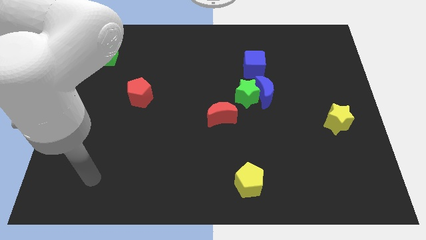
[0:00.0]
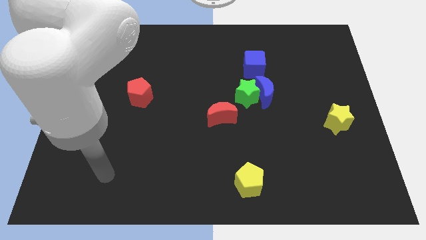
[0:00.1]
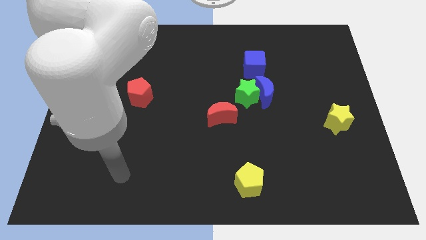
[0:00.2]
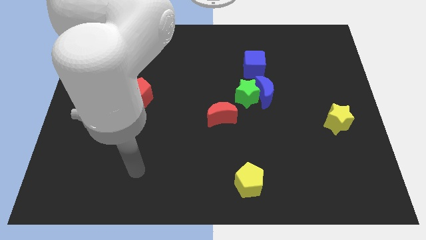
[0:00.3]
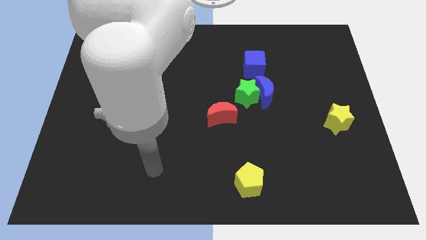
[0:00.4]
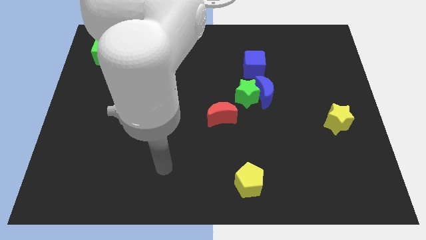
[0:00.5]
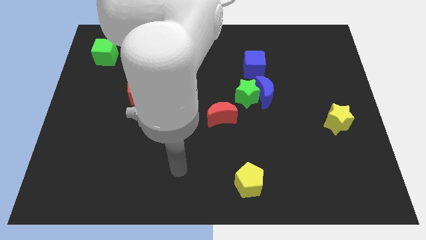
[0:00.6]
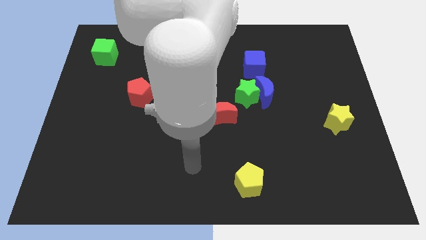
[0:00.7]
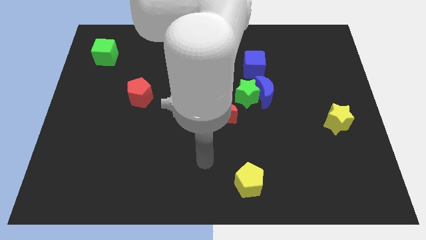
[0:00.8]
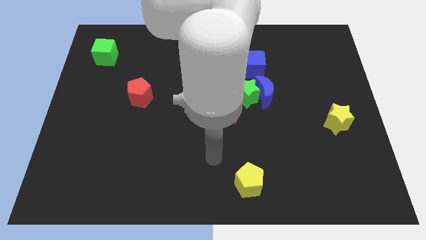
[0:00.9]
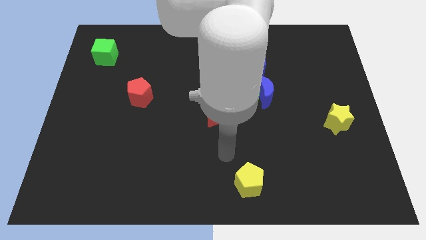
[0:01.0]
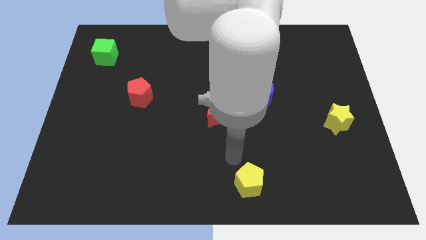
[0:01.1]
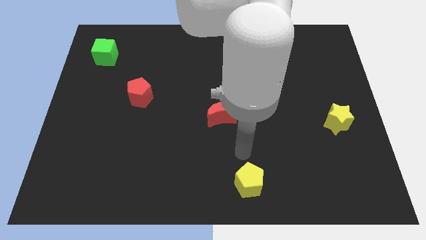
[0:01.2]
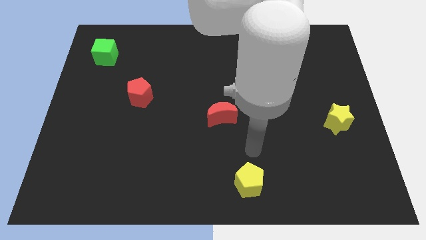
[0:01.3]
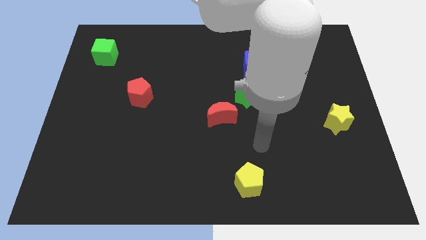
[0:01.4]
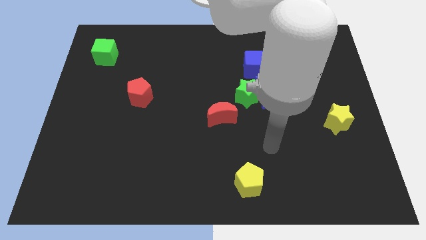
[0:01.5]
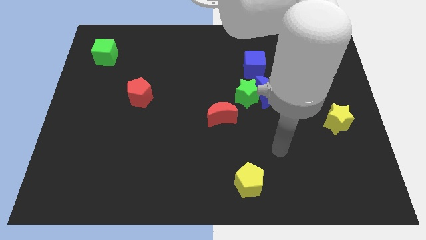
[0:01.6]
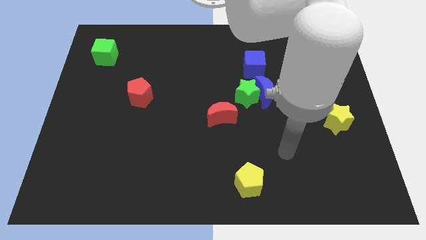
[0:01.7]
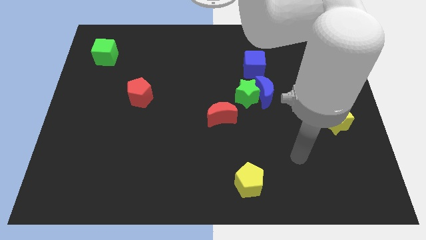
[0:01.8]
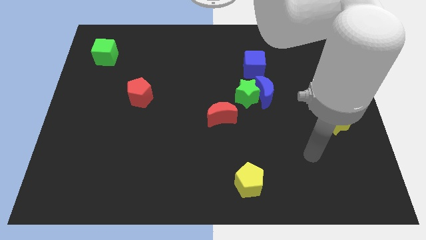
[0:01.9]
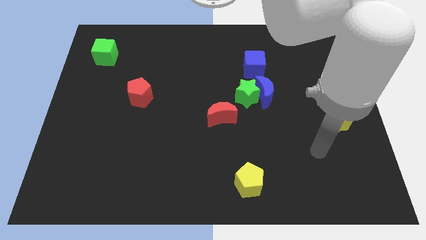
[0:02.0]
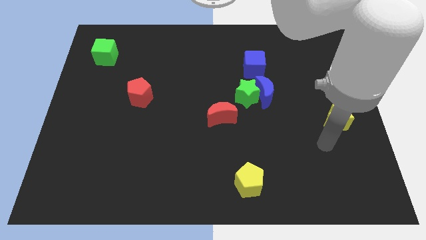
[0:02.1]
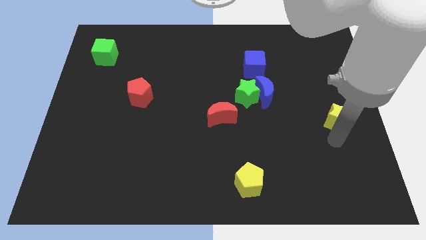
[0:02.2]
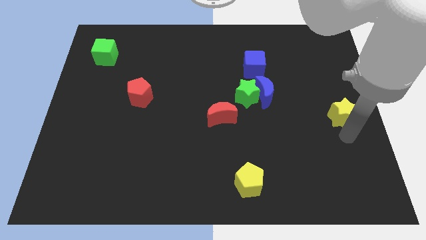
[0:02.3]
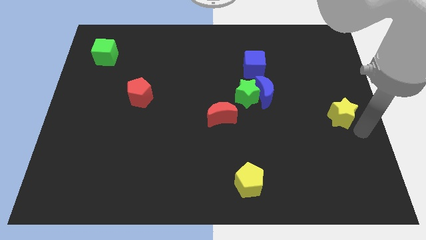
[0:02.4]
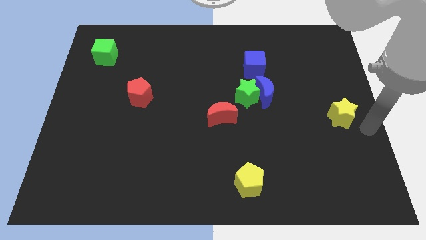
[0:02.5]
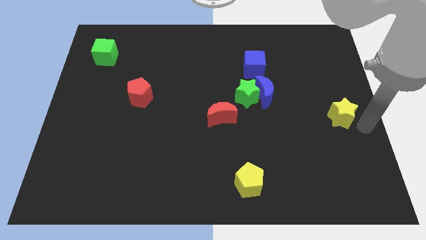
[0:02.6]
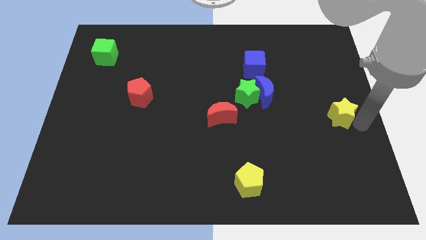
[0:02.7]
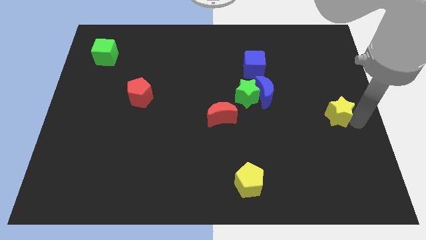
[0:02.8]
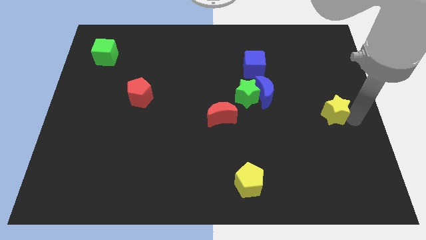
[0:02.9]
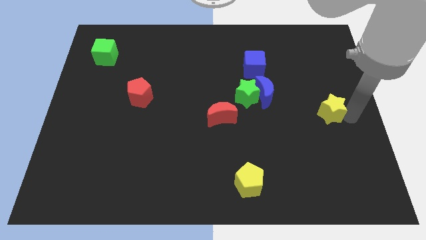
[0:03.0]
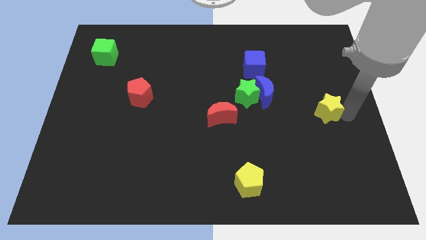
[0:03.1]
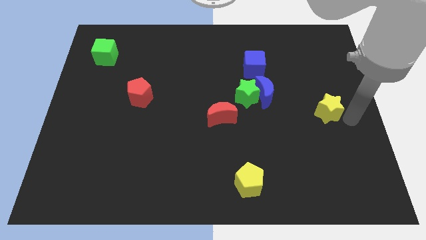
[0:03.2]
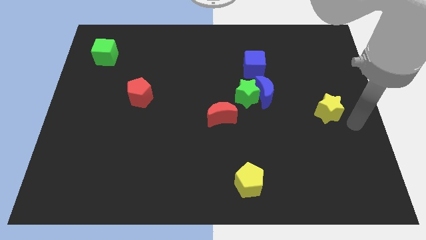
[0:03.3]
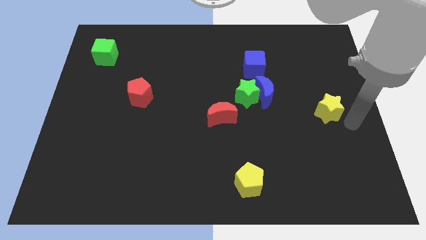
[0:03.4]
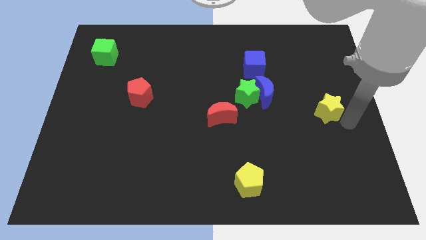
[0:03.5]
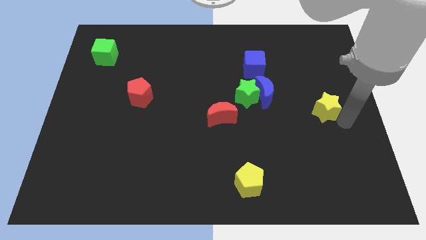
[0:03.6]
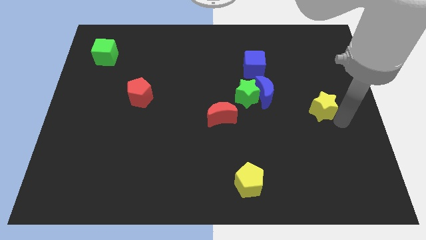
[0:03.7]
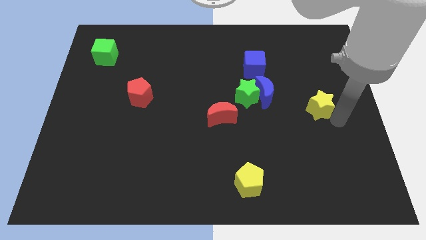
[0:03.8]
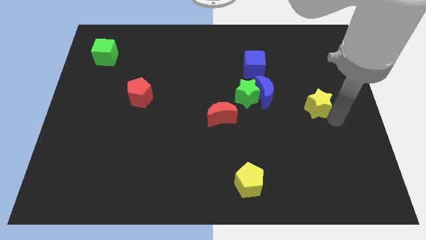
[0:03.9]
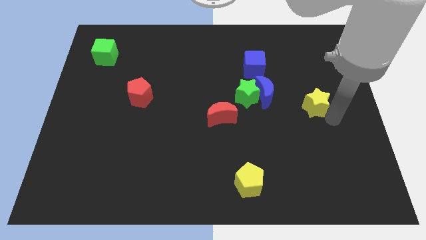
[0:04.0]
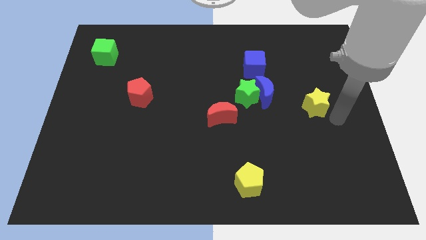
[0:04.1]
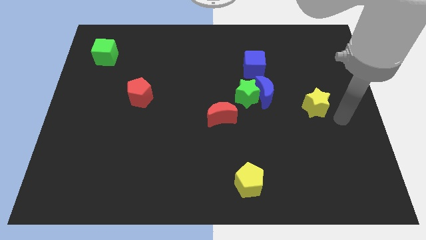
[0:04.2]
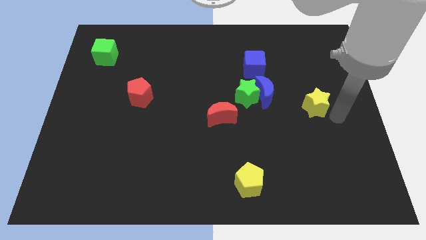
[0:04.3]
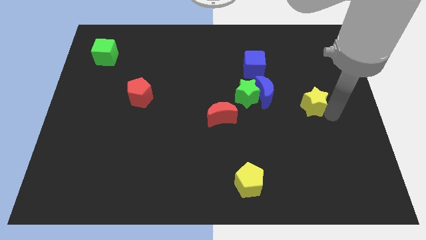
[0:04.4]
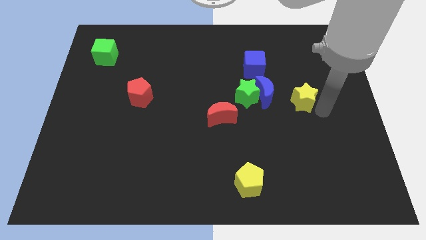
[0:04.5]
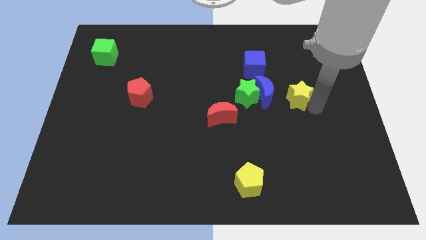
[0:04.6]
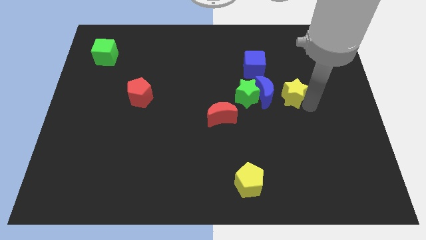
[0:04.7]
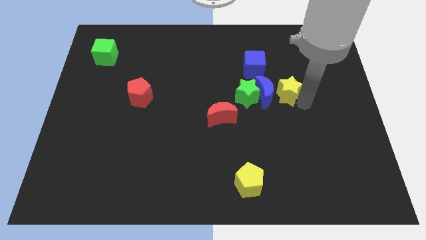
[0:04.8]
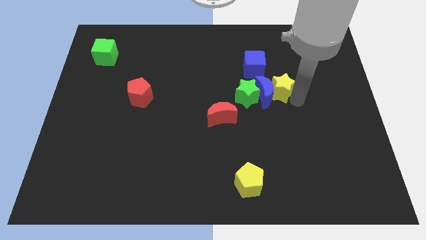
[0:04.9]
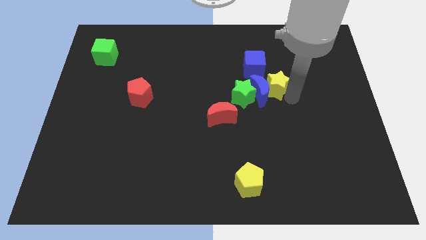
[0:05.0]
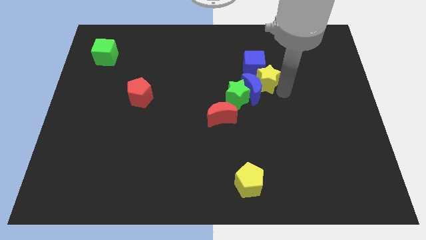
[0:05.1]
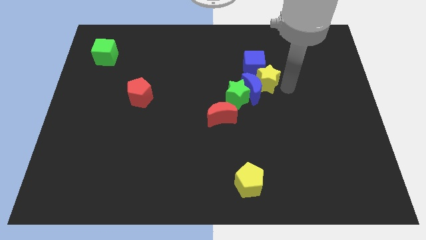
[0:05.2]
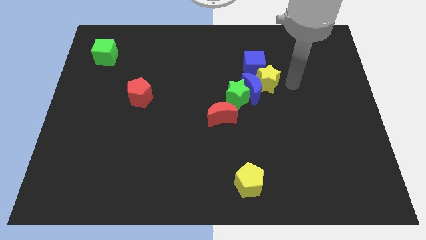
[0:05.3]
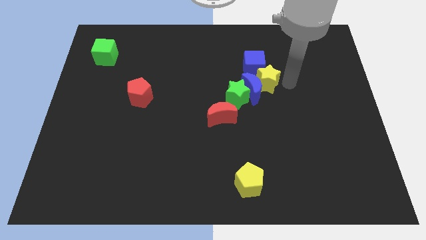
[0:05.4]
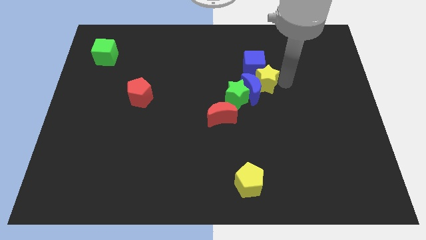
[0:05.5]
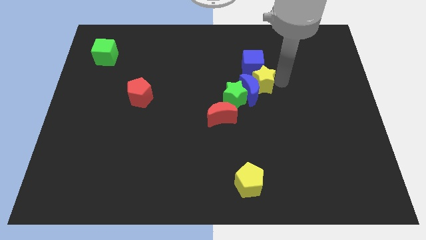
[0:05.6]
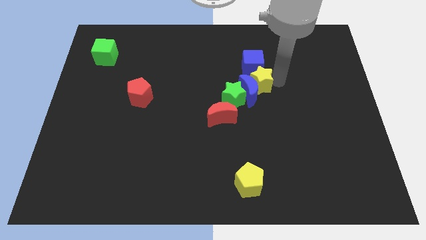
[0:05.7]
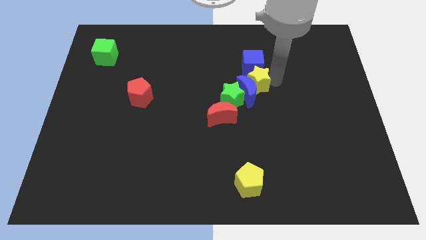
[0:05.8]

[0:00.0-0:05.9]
slide the yellow star to the bottom left side of the blue cube

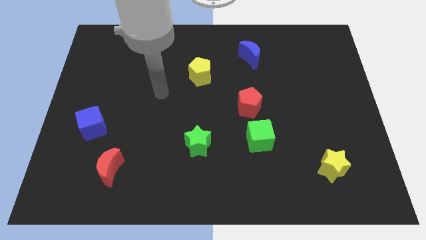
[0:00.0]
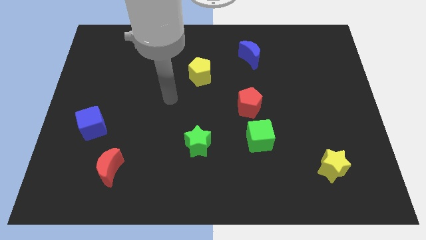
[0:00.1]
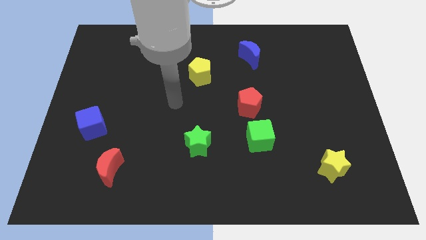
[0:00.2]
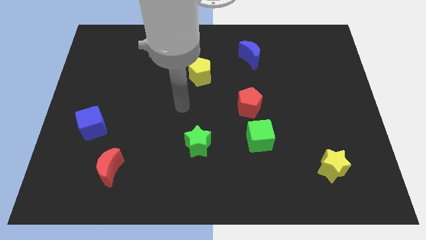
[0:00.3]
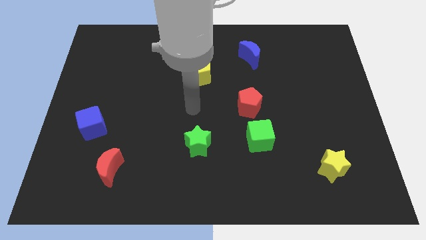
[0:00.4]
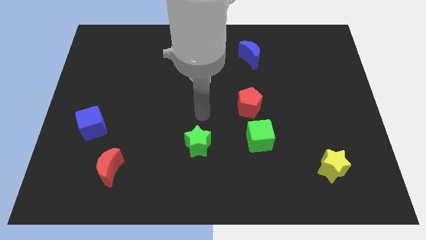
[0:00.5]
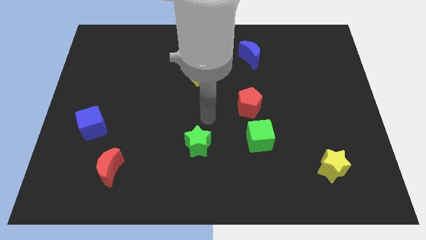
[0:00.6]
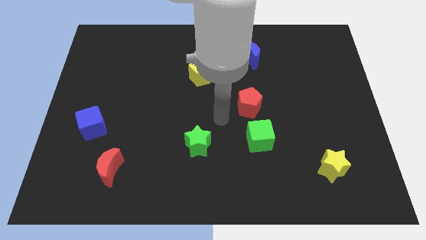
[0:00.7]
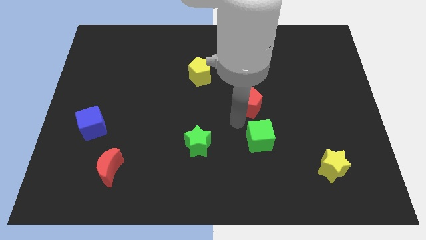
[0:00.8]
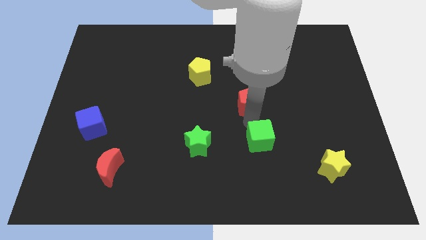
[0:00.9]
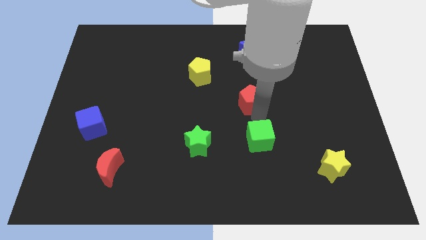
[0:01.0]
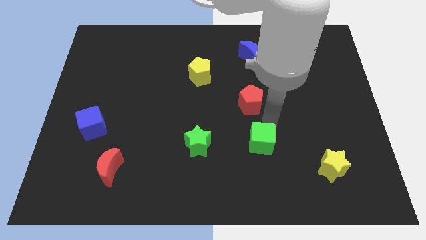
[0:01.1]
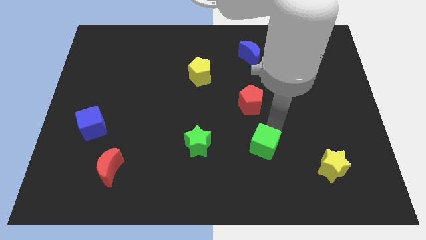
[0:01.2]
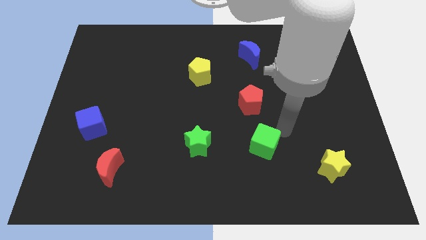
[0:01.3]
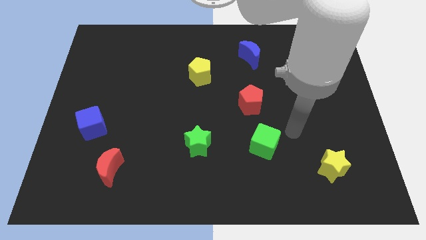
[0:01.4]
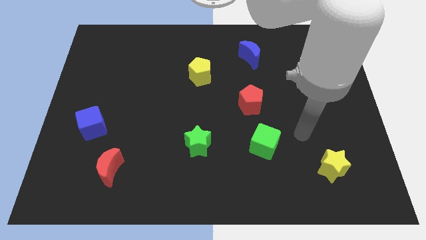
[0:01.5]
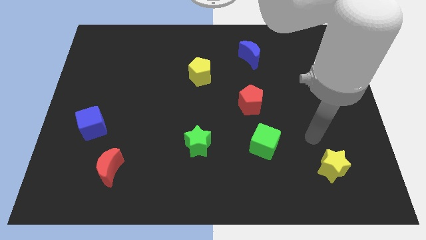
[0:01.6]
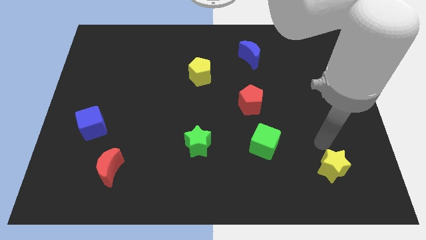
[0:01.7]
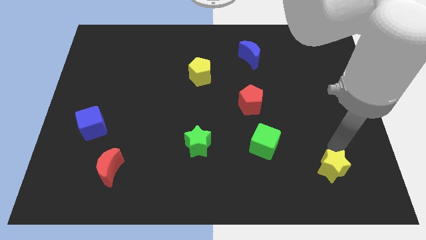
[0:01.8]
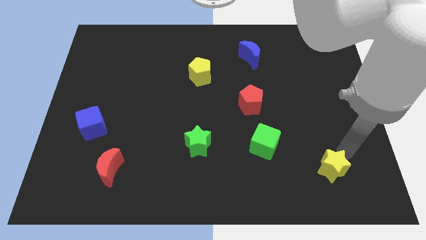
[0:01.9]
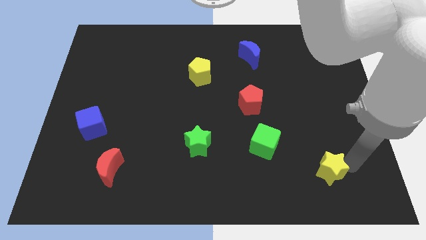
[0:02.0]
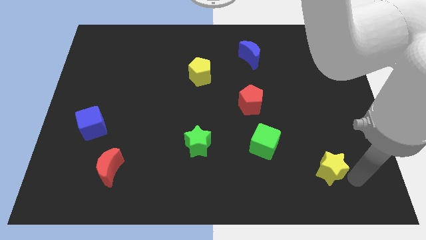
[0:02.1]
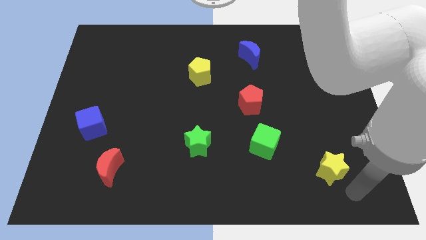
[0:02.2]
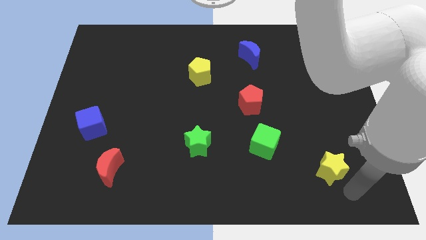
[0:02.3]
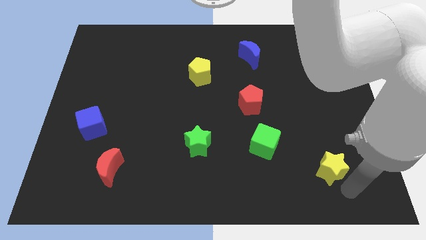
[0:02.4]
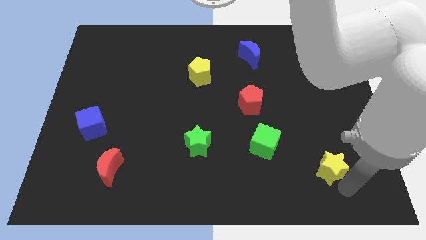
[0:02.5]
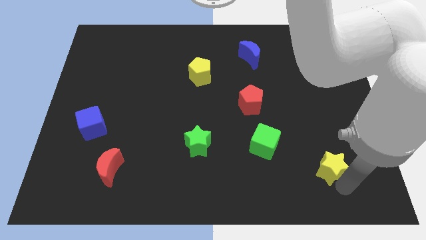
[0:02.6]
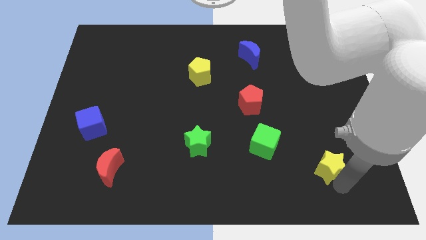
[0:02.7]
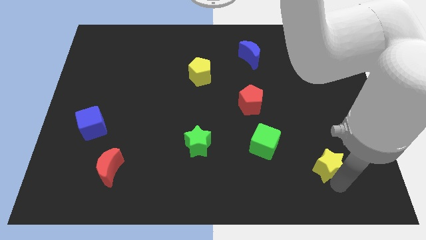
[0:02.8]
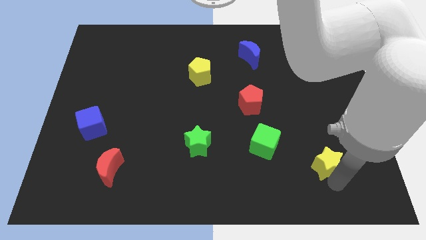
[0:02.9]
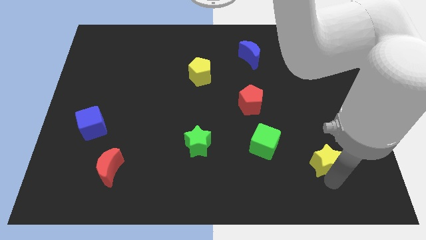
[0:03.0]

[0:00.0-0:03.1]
slide the yellow star right of the green cube
